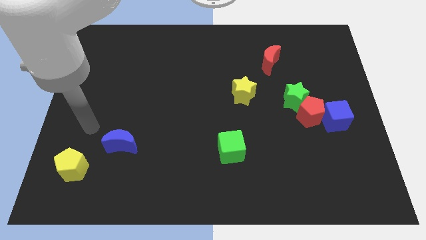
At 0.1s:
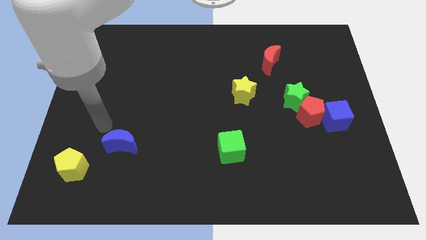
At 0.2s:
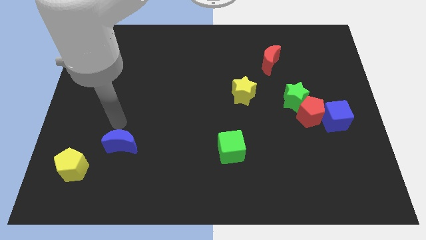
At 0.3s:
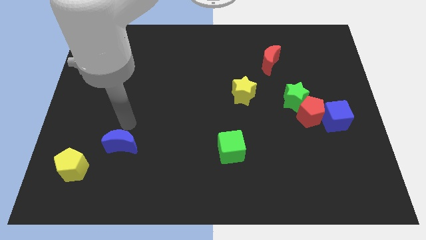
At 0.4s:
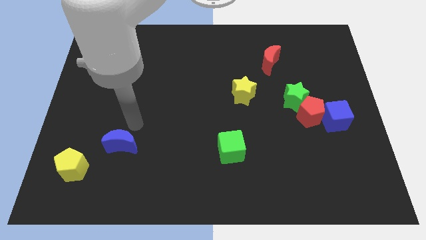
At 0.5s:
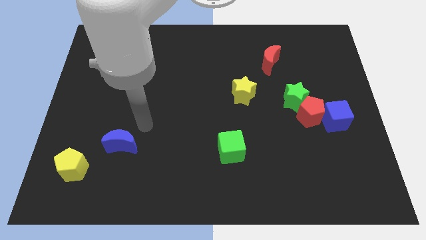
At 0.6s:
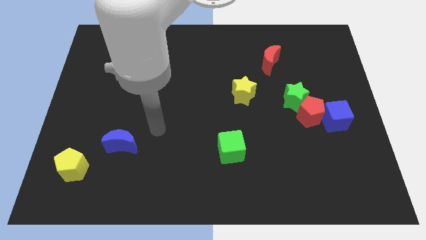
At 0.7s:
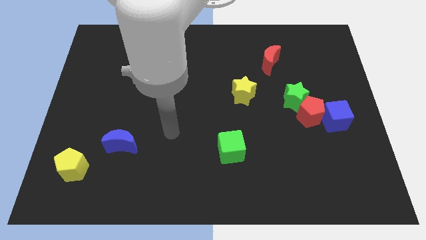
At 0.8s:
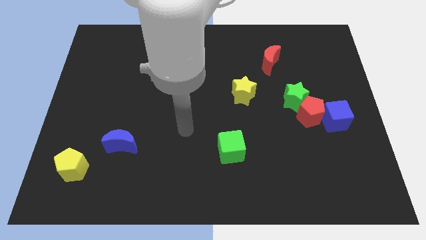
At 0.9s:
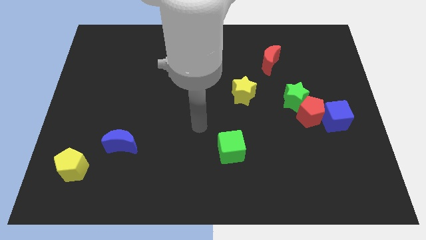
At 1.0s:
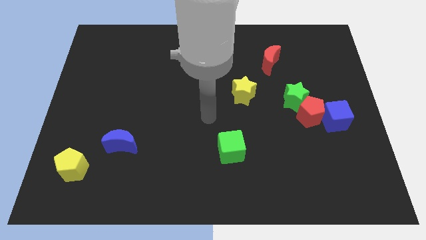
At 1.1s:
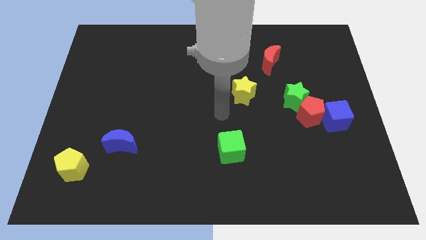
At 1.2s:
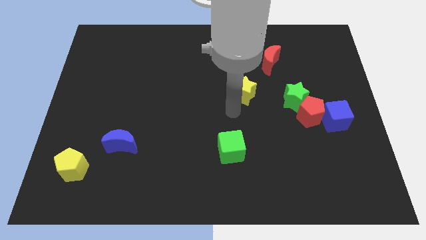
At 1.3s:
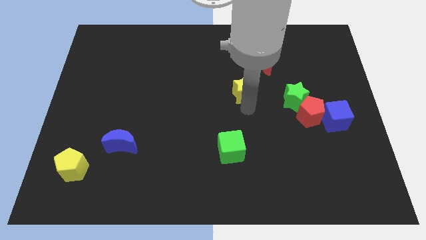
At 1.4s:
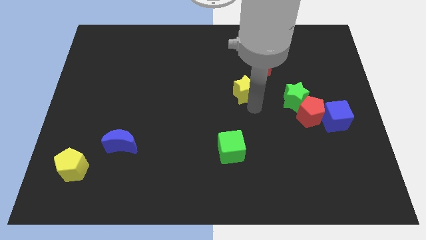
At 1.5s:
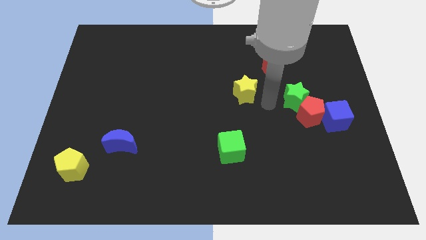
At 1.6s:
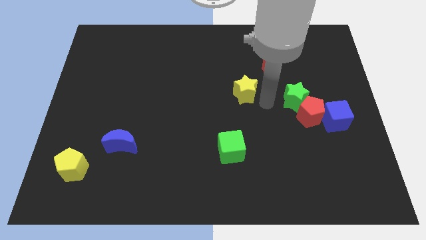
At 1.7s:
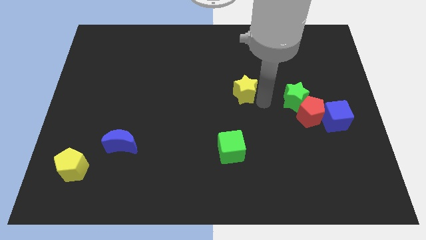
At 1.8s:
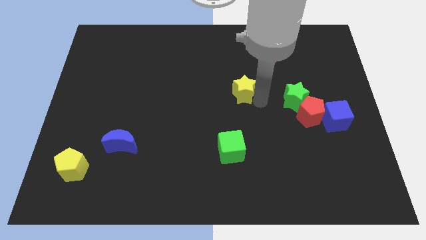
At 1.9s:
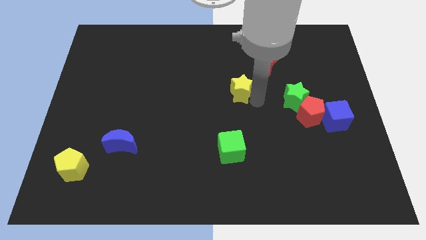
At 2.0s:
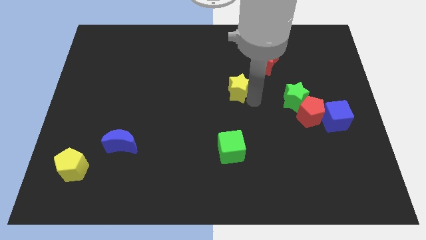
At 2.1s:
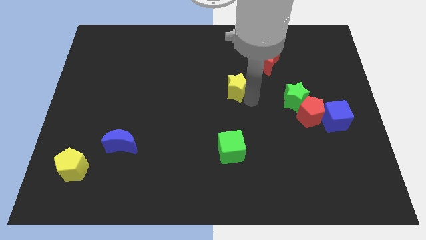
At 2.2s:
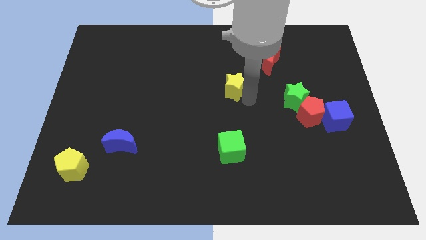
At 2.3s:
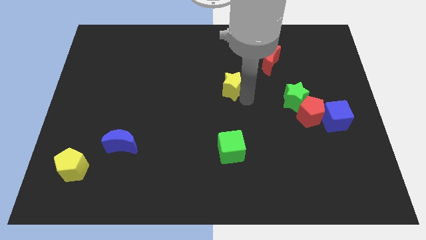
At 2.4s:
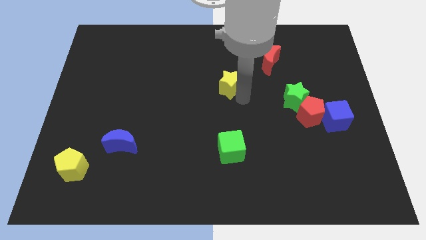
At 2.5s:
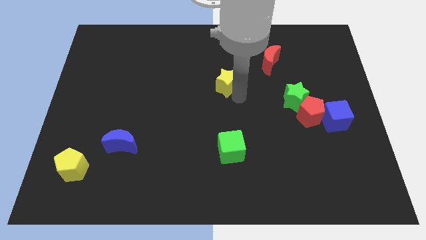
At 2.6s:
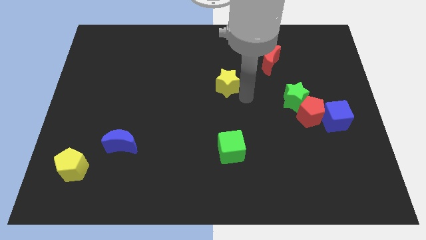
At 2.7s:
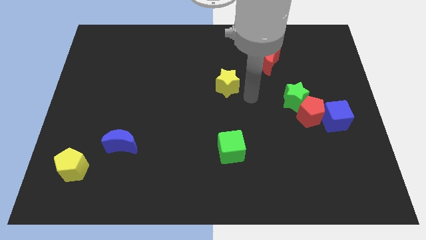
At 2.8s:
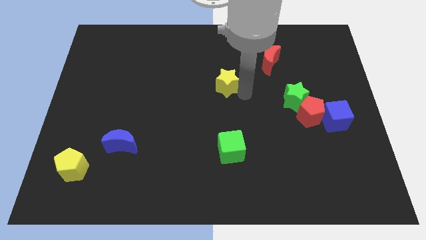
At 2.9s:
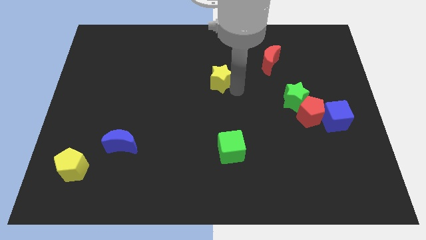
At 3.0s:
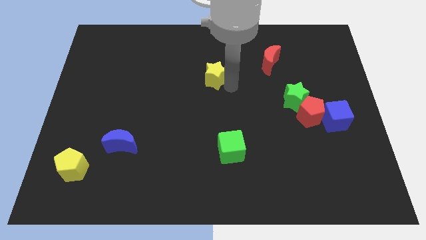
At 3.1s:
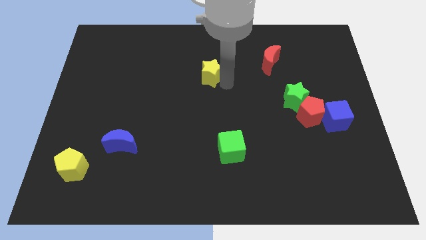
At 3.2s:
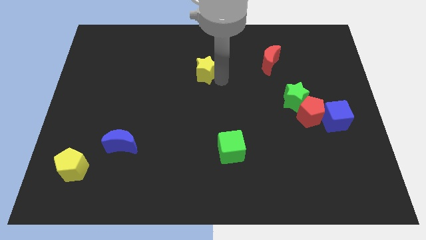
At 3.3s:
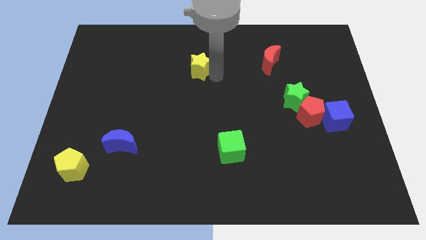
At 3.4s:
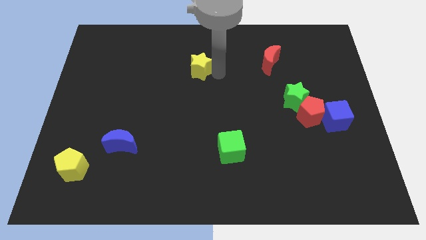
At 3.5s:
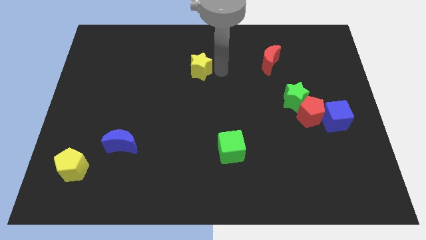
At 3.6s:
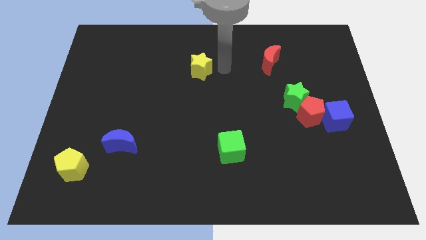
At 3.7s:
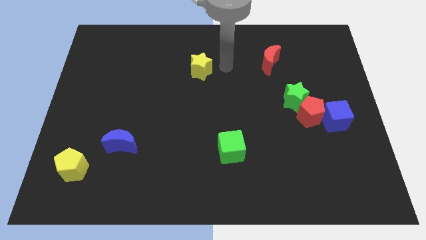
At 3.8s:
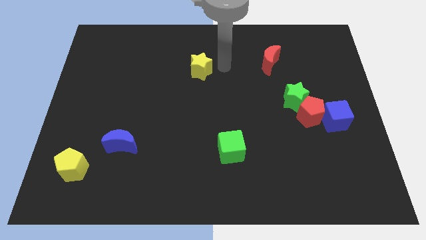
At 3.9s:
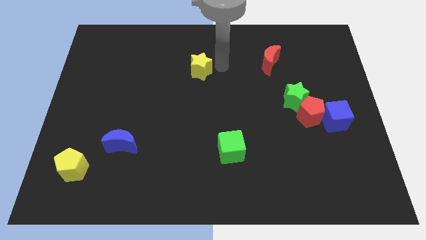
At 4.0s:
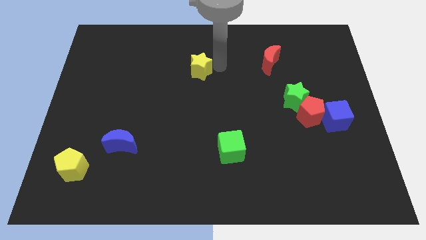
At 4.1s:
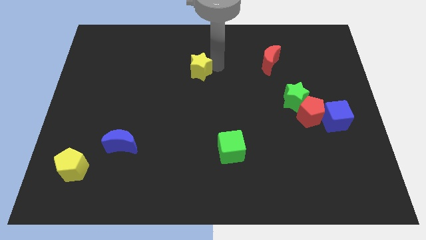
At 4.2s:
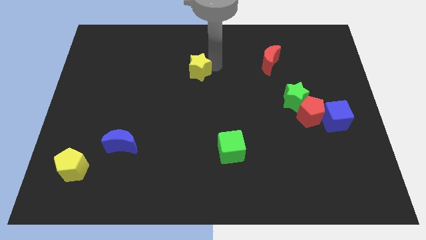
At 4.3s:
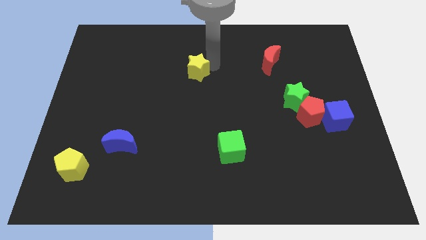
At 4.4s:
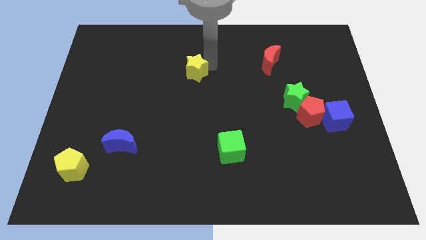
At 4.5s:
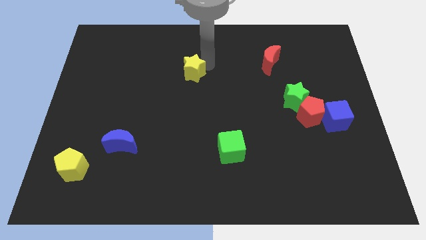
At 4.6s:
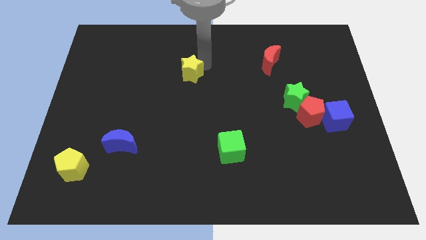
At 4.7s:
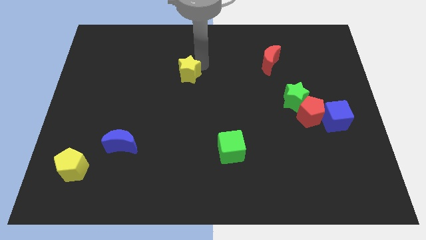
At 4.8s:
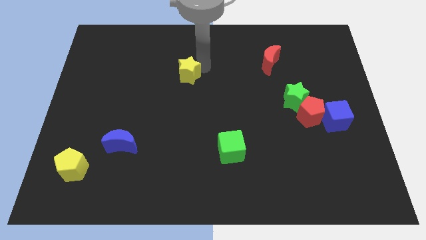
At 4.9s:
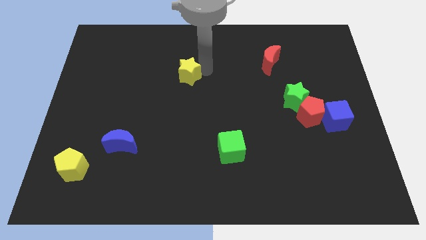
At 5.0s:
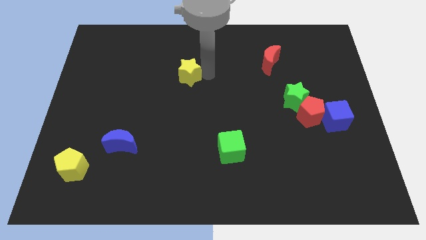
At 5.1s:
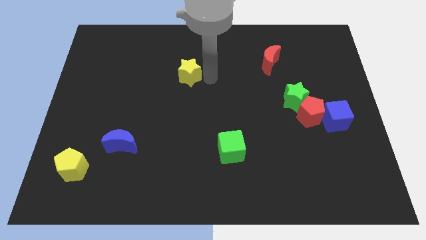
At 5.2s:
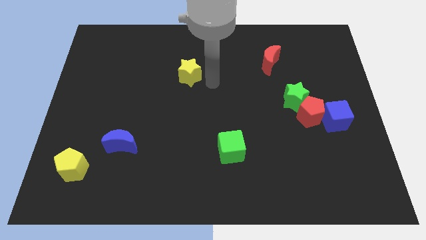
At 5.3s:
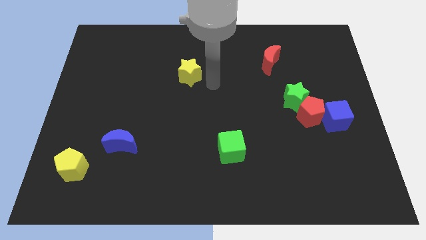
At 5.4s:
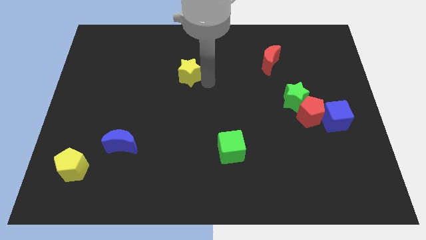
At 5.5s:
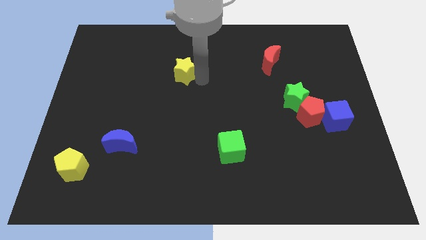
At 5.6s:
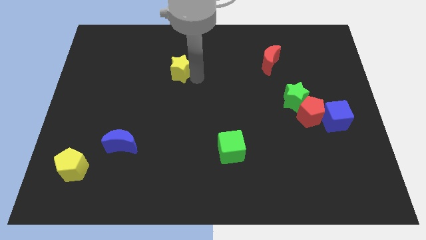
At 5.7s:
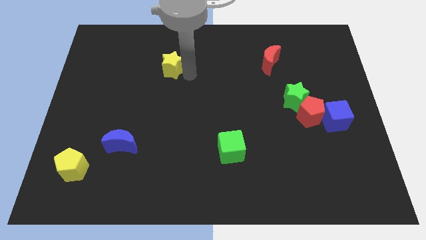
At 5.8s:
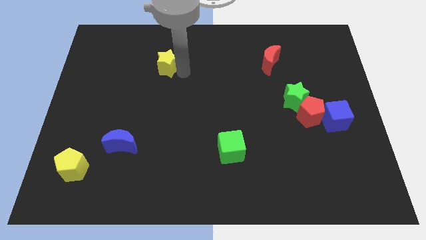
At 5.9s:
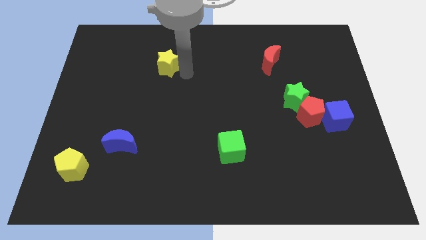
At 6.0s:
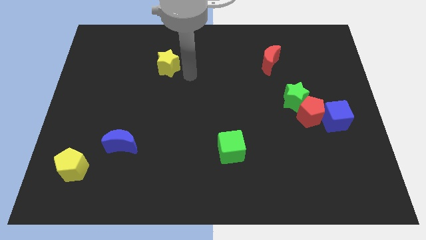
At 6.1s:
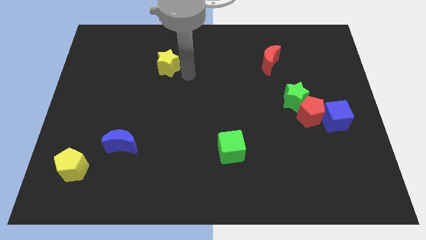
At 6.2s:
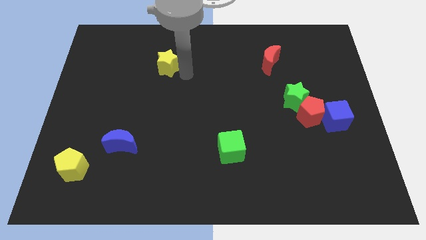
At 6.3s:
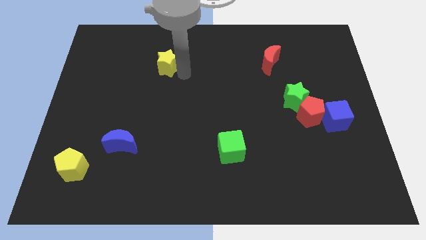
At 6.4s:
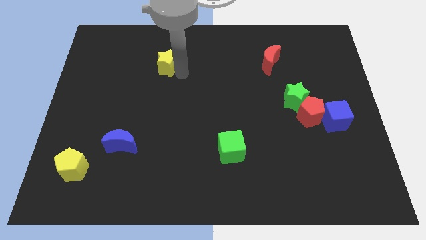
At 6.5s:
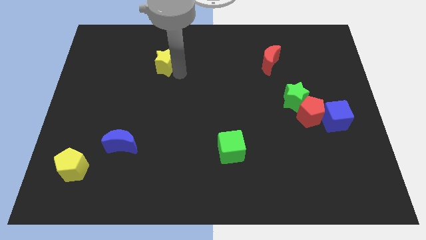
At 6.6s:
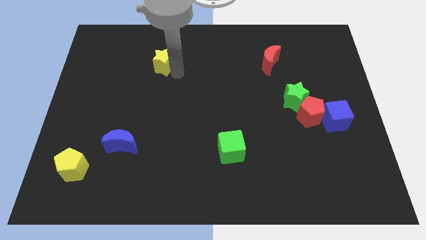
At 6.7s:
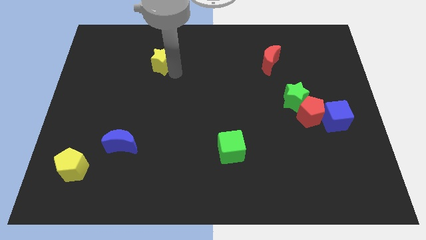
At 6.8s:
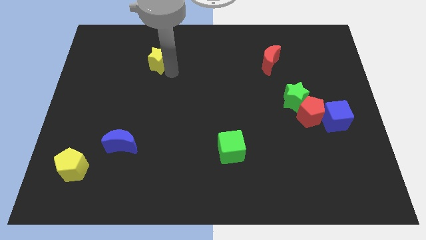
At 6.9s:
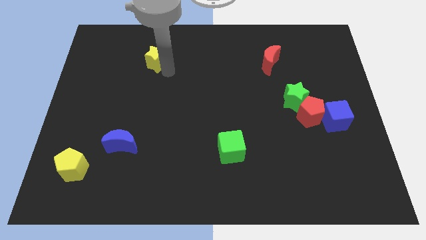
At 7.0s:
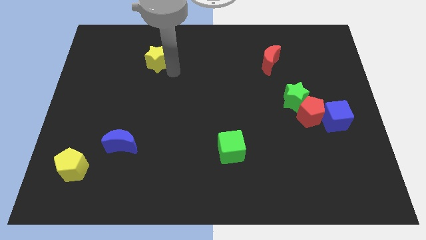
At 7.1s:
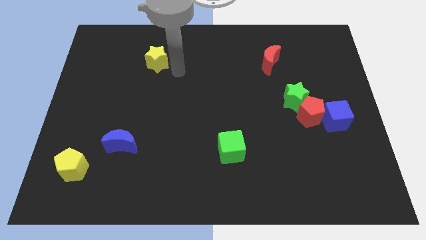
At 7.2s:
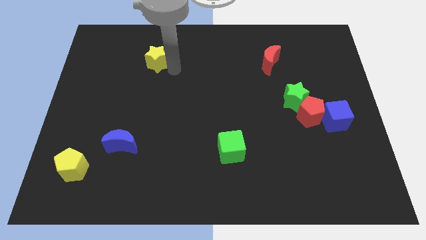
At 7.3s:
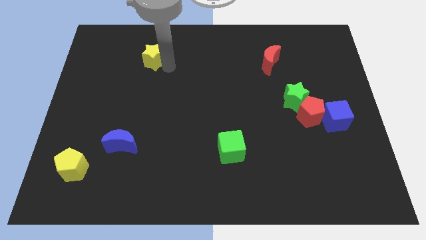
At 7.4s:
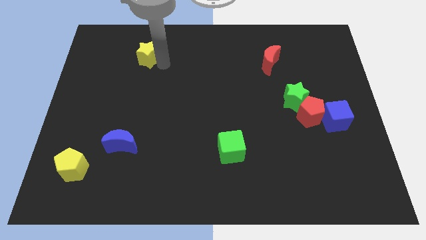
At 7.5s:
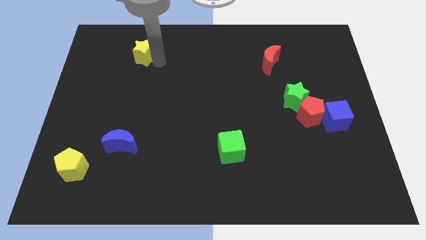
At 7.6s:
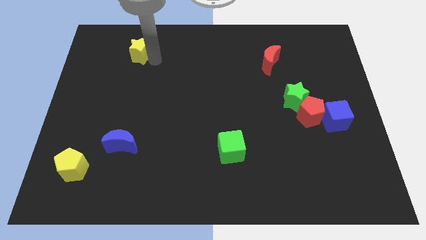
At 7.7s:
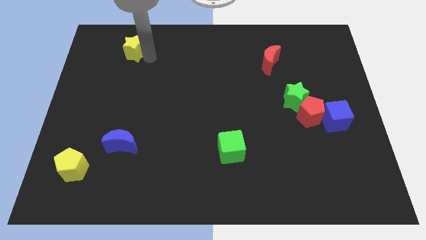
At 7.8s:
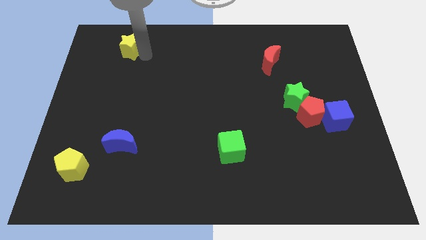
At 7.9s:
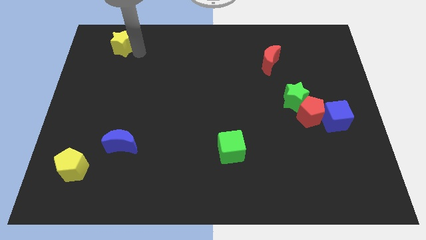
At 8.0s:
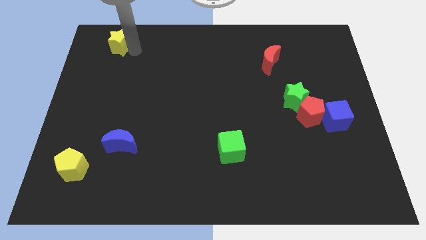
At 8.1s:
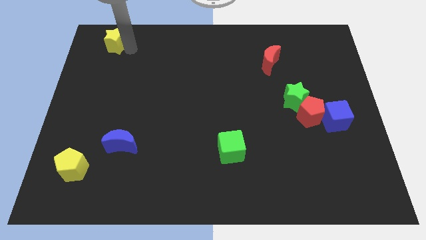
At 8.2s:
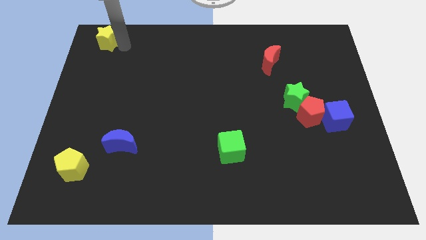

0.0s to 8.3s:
put the yellow star to the upper left corner
